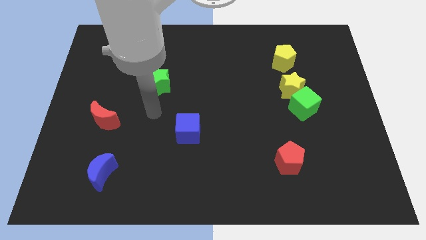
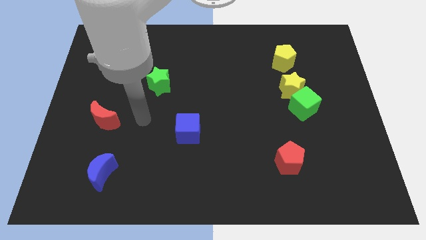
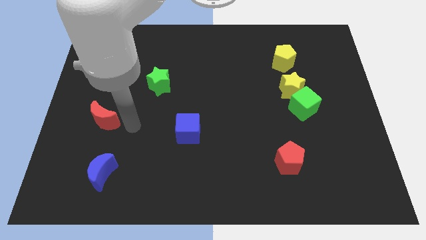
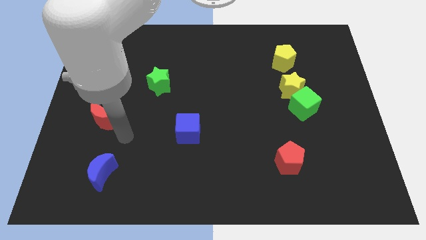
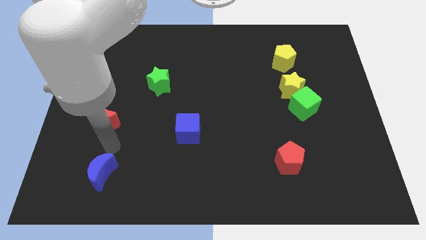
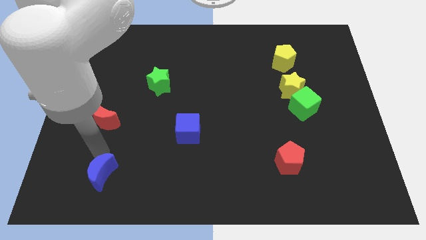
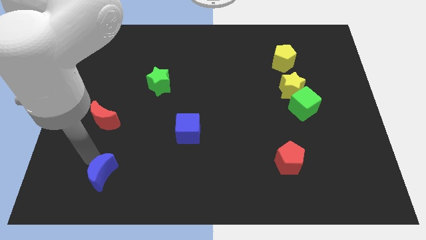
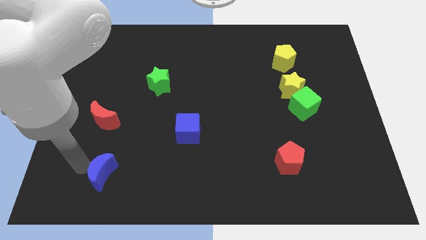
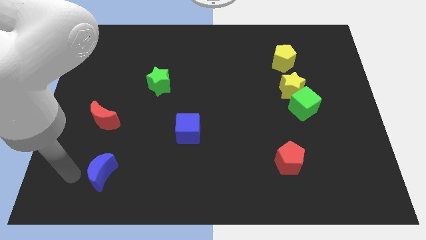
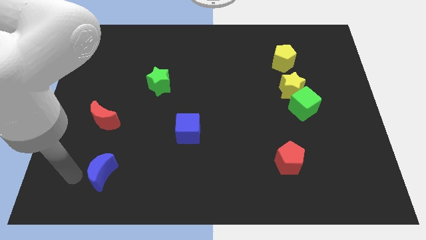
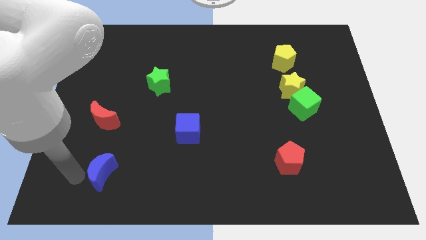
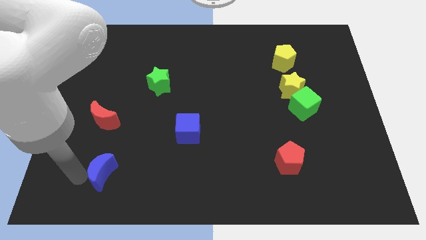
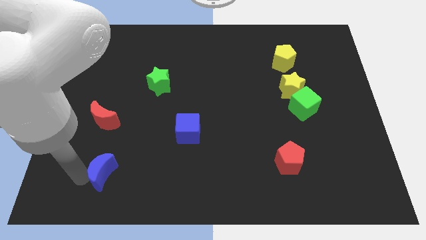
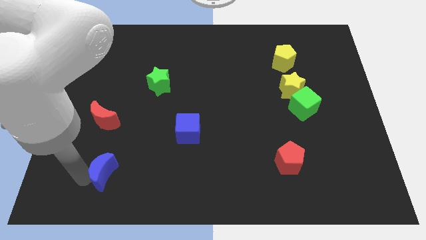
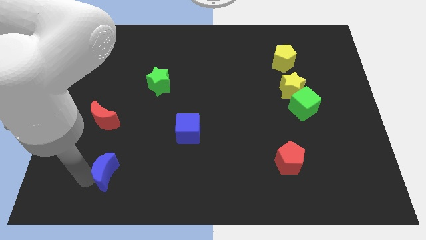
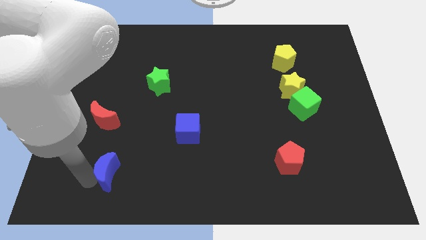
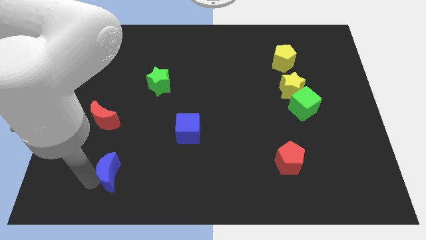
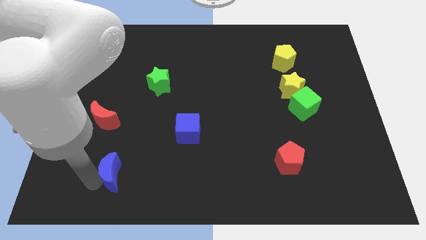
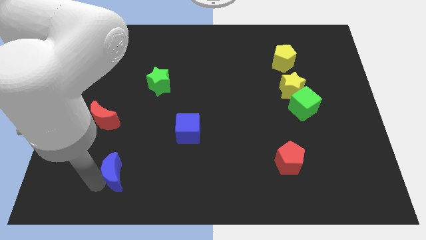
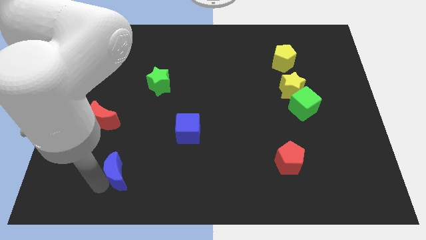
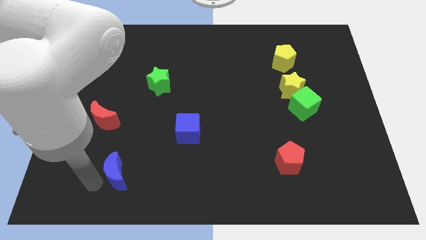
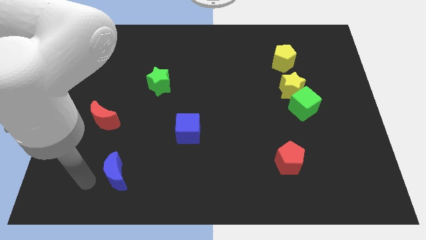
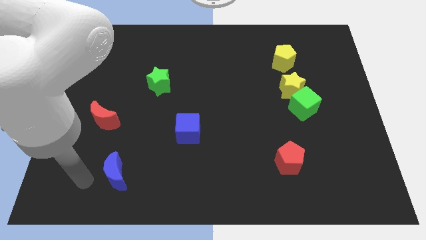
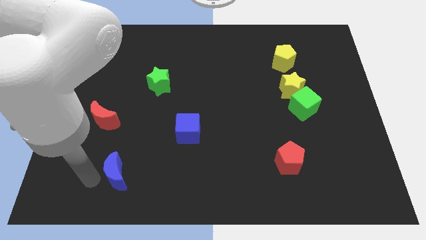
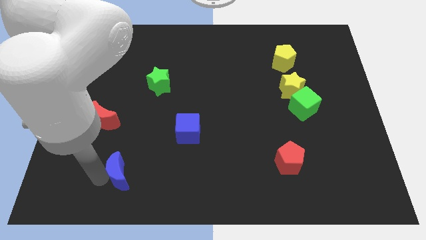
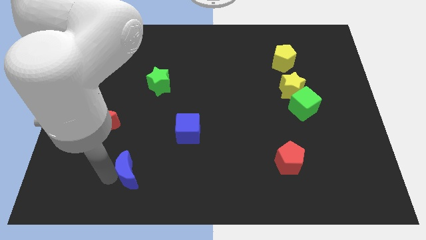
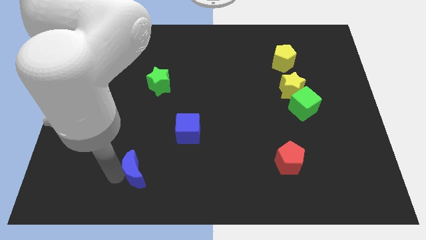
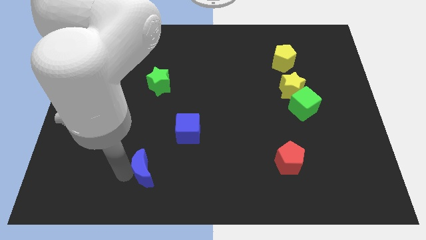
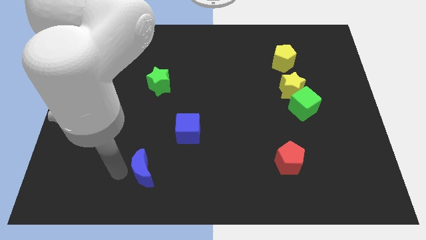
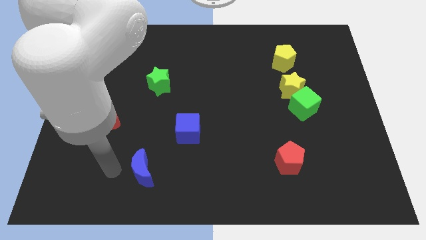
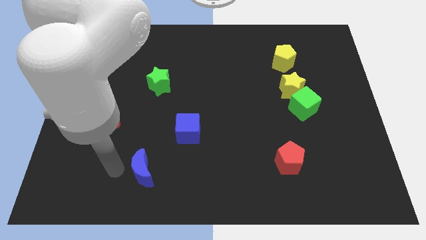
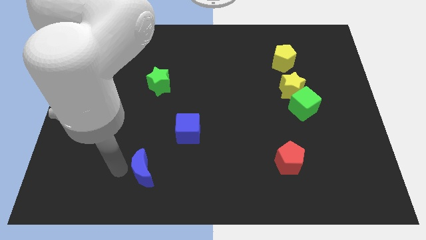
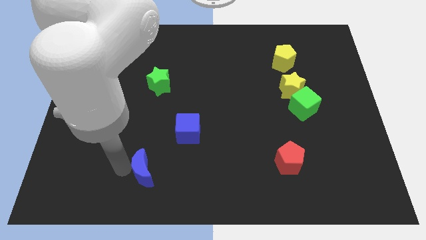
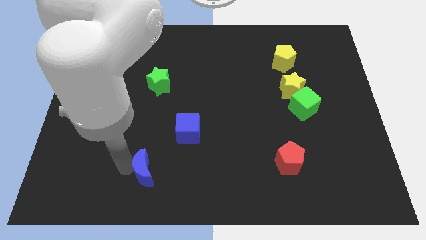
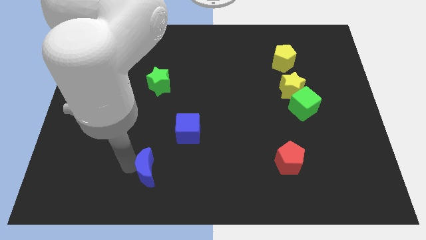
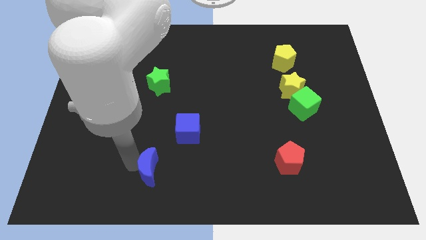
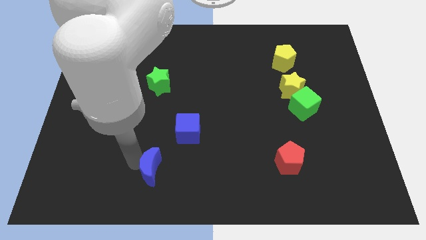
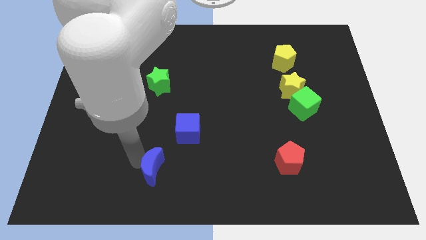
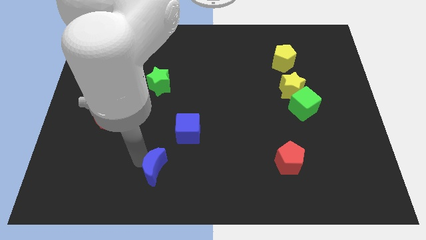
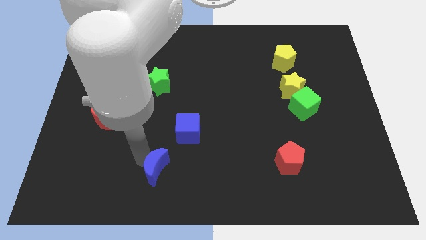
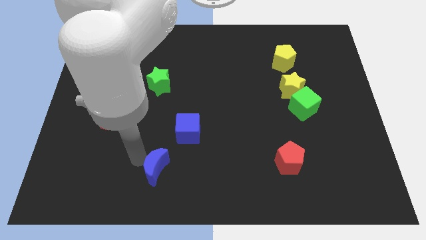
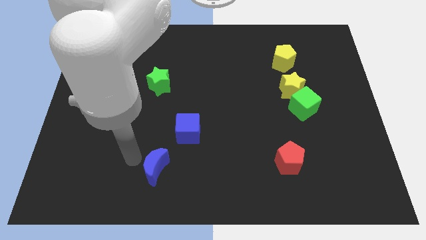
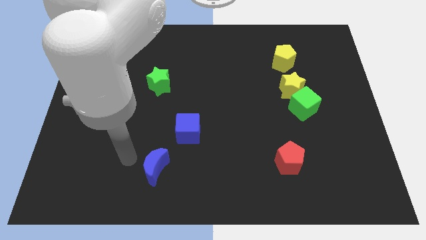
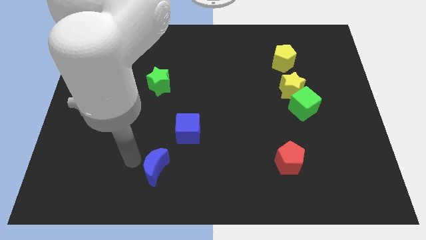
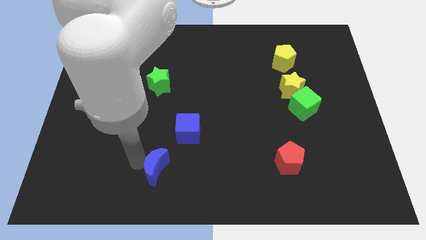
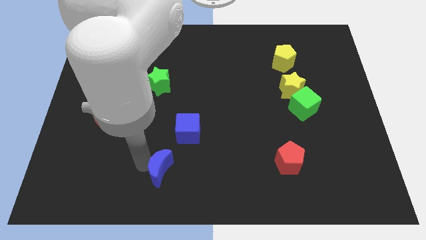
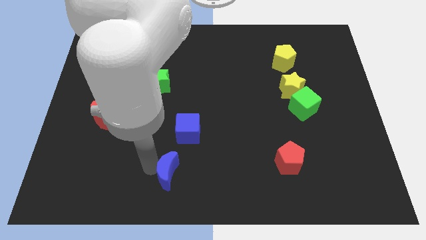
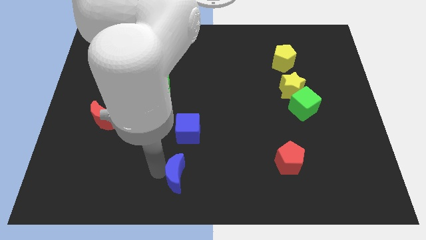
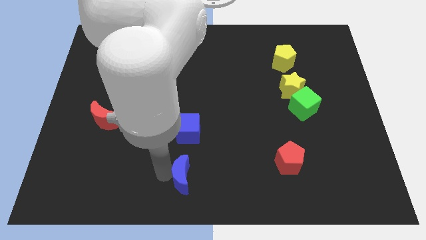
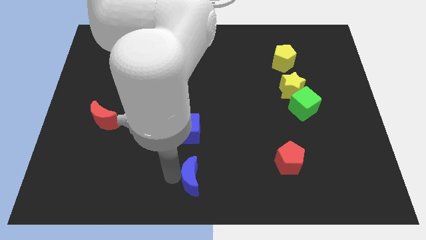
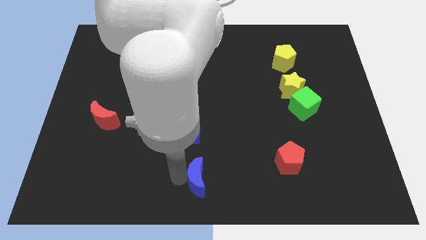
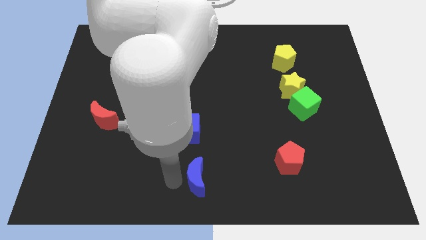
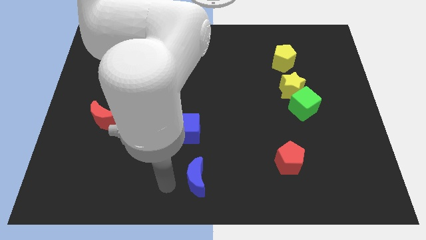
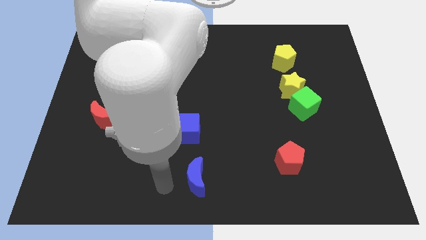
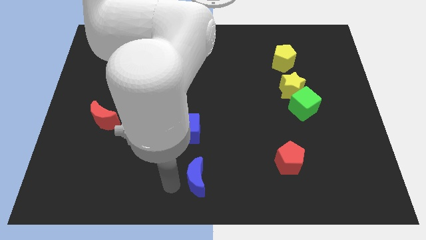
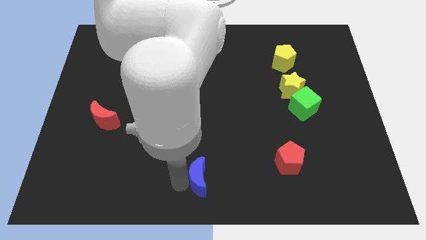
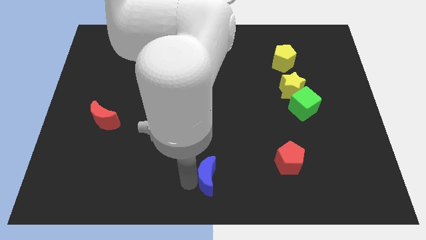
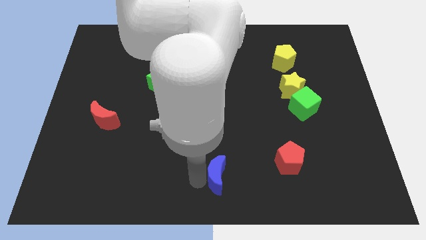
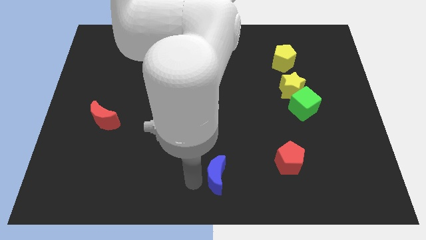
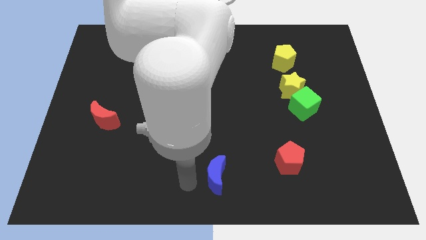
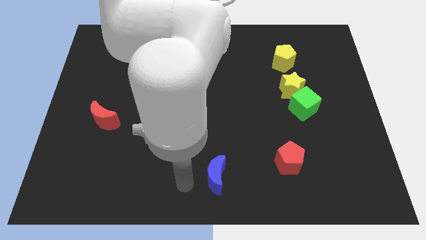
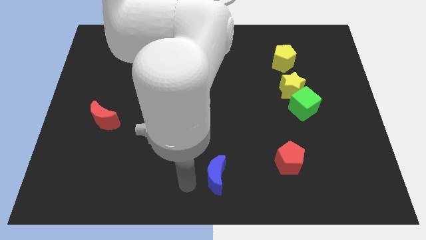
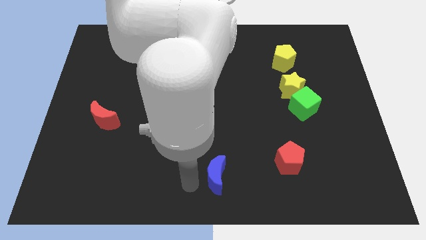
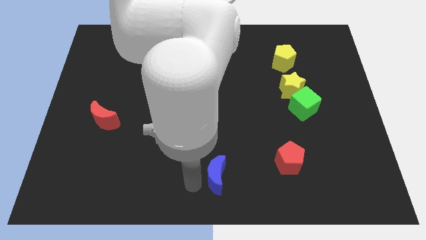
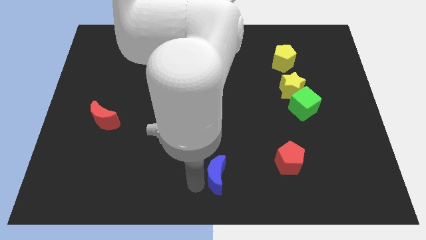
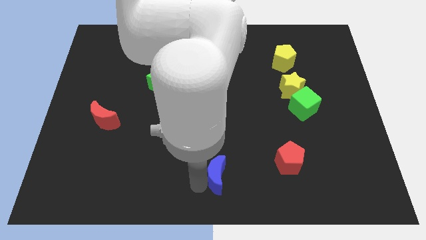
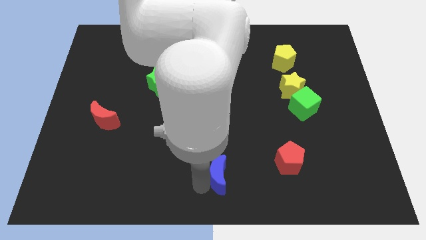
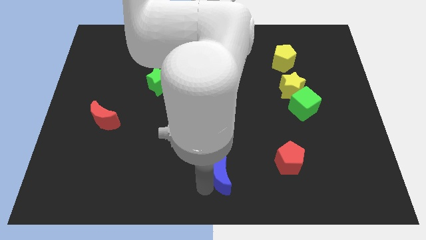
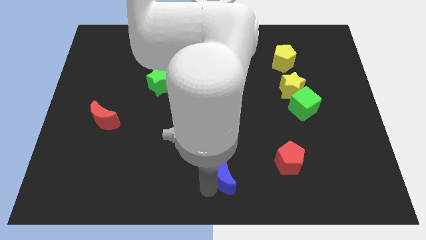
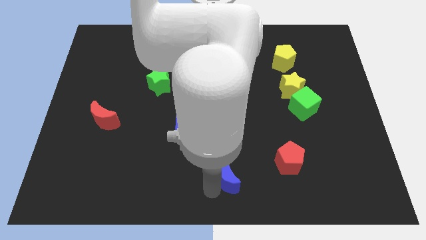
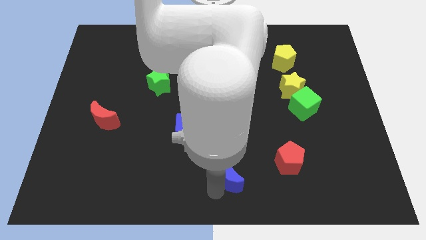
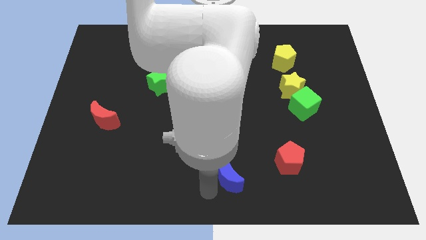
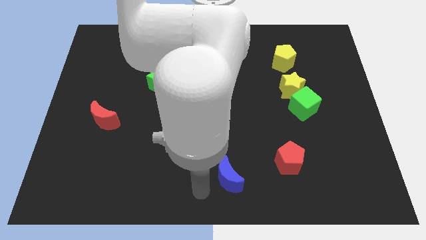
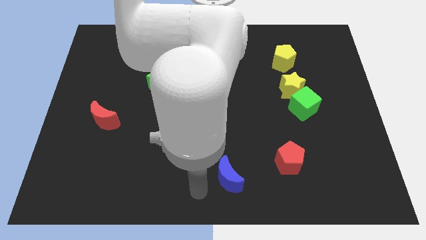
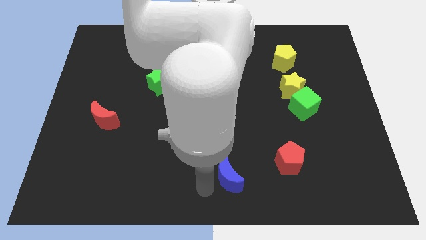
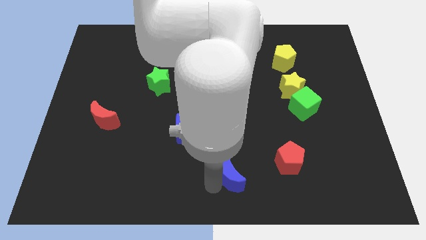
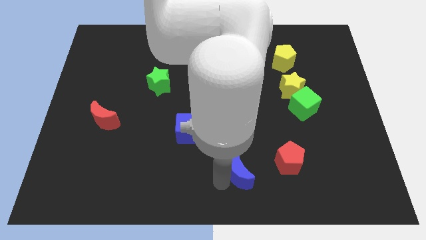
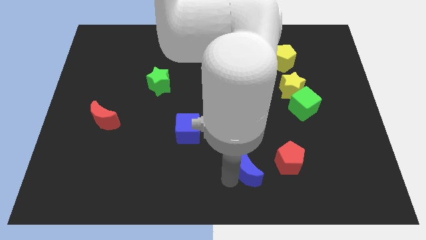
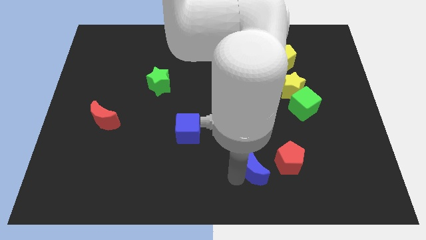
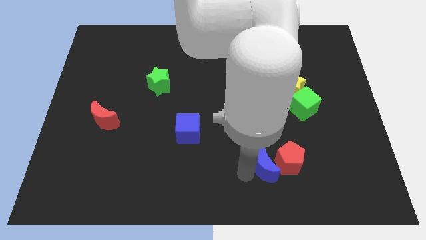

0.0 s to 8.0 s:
slide the blue moon close to the red pentagon
